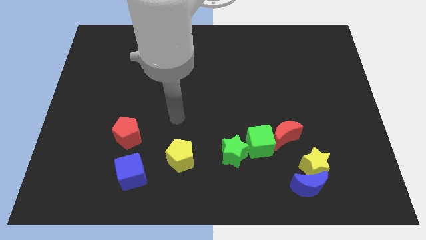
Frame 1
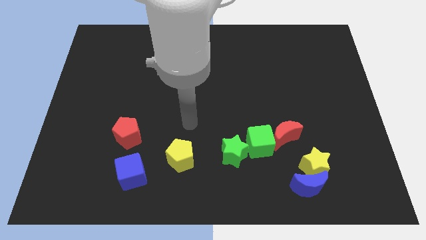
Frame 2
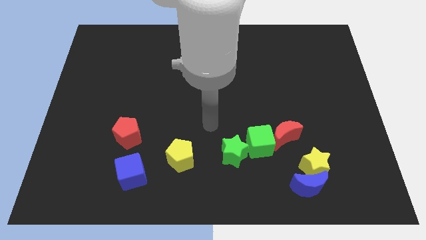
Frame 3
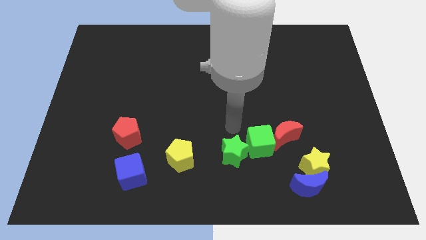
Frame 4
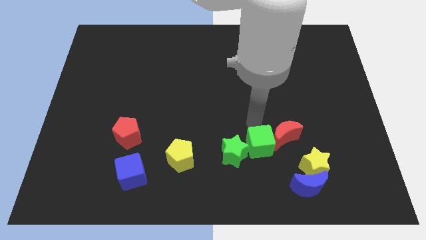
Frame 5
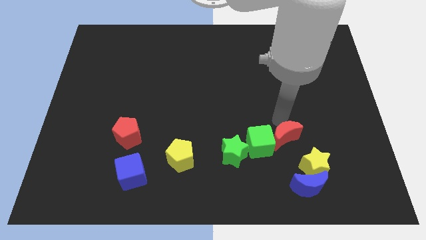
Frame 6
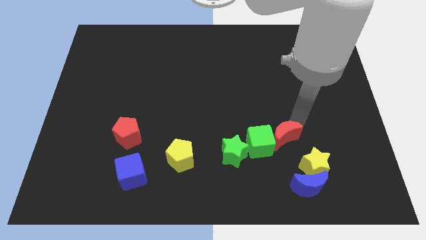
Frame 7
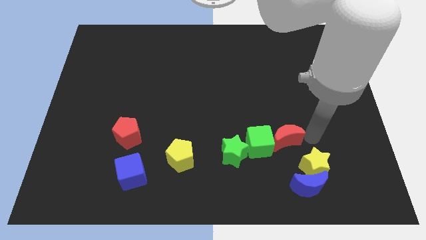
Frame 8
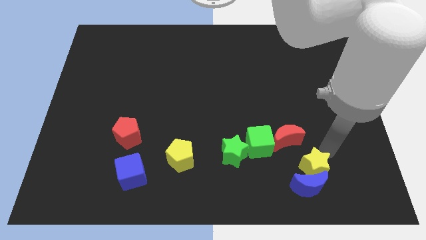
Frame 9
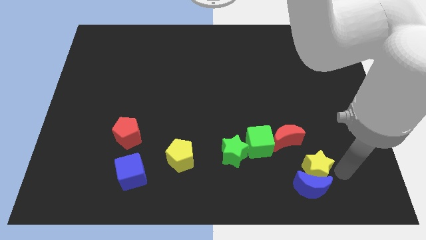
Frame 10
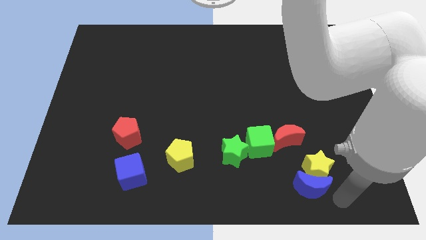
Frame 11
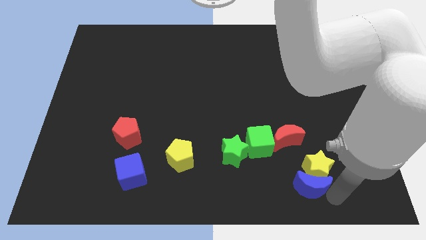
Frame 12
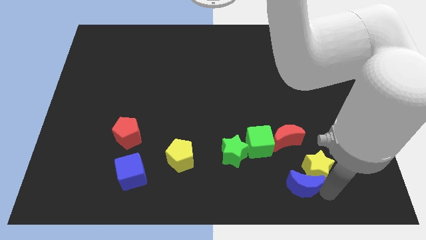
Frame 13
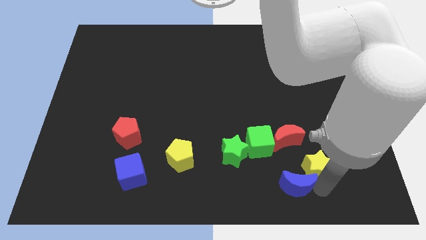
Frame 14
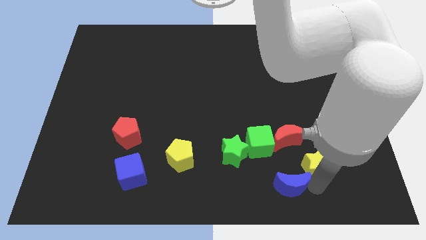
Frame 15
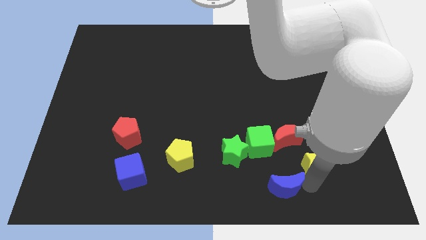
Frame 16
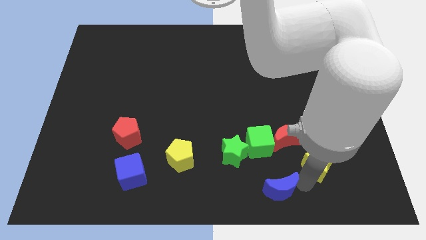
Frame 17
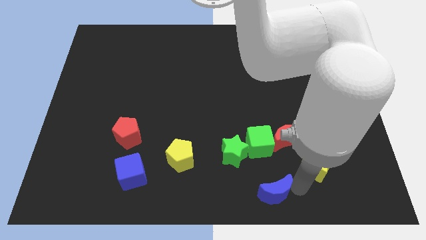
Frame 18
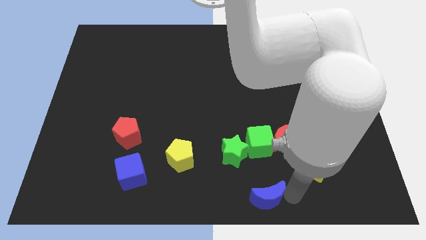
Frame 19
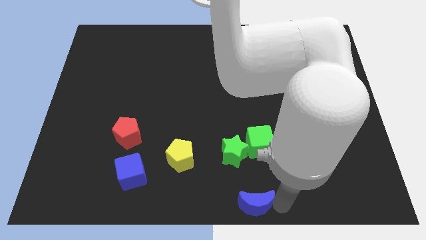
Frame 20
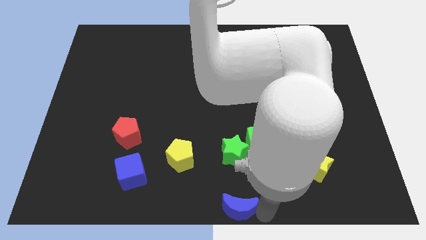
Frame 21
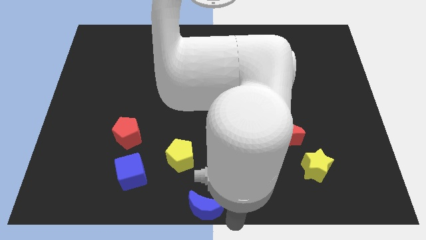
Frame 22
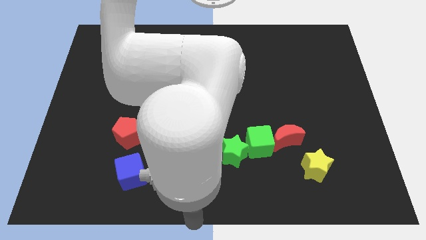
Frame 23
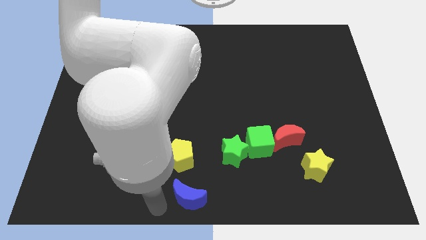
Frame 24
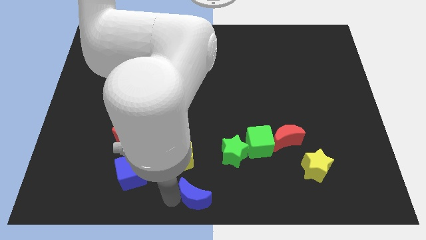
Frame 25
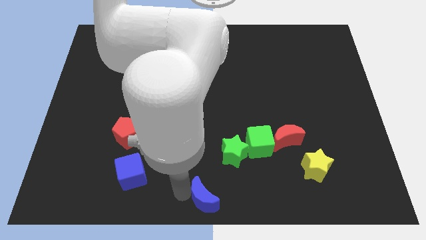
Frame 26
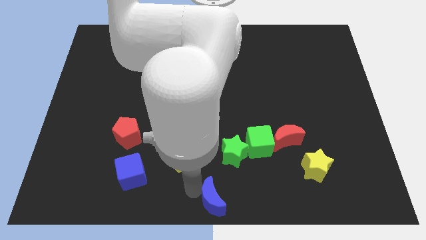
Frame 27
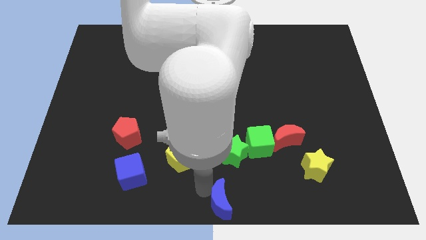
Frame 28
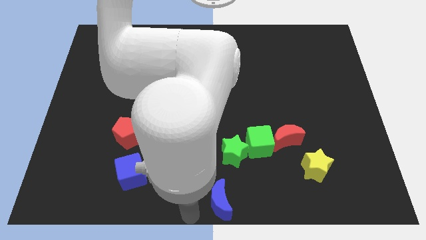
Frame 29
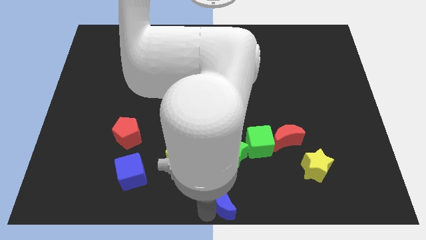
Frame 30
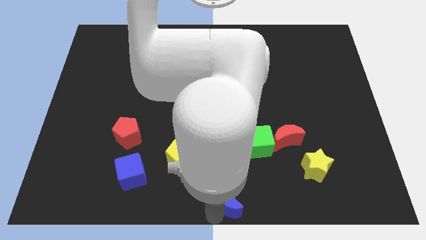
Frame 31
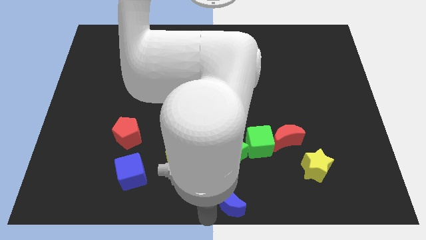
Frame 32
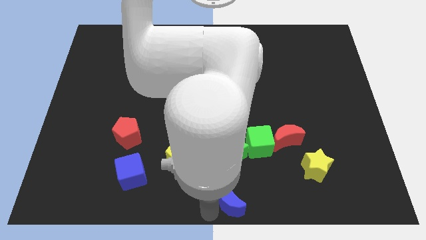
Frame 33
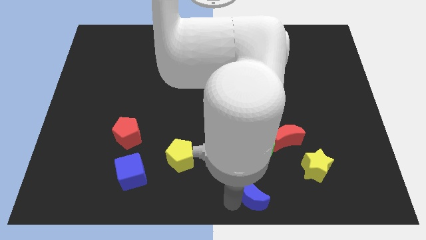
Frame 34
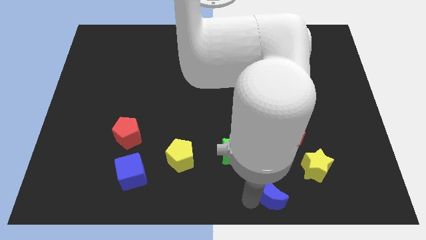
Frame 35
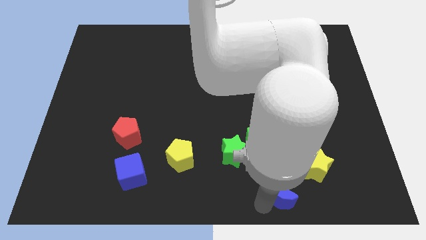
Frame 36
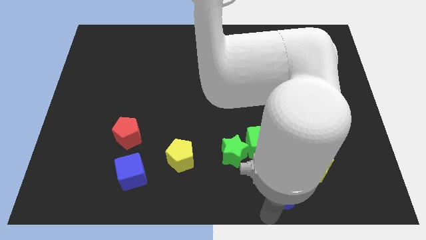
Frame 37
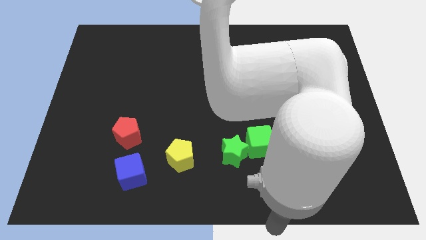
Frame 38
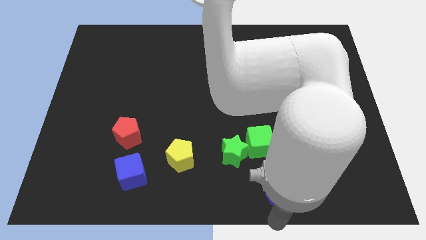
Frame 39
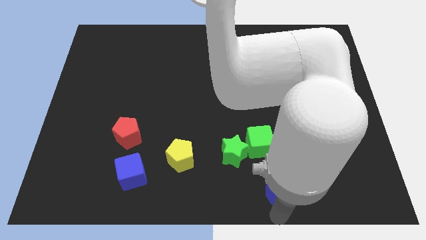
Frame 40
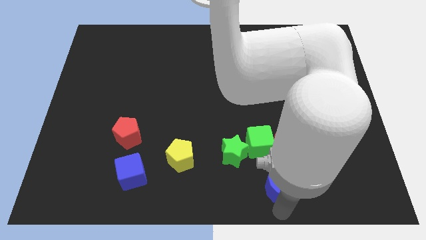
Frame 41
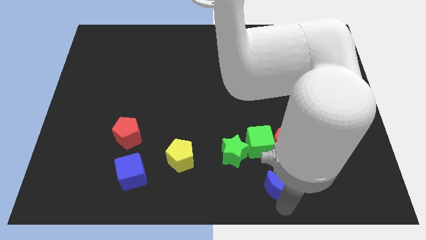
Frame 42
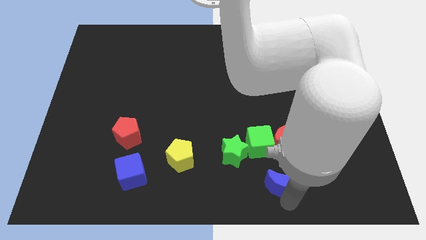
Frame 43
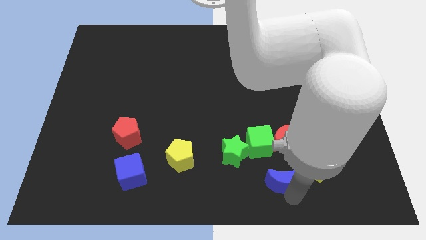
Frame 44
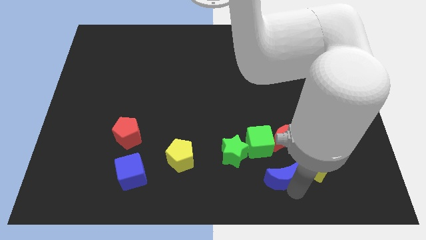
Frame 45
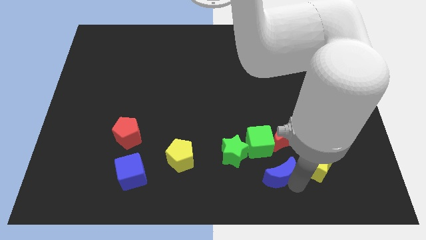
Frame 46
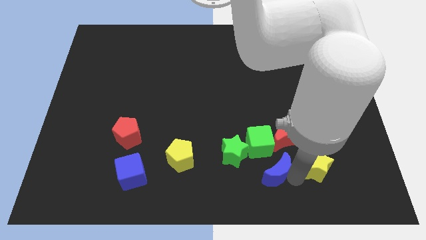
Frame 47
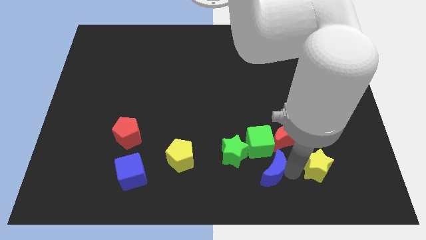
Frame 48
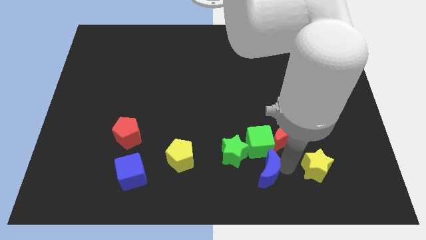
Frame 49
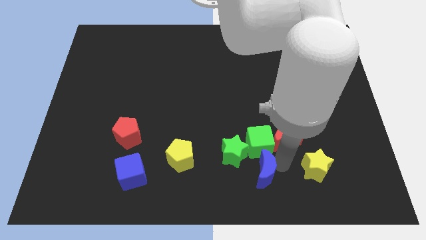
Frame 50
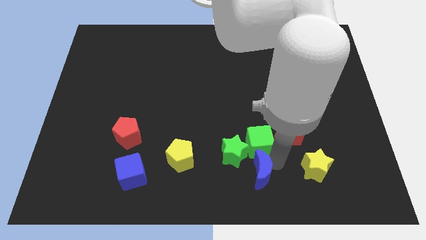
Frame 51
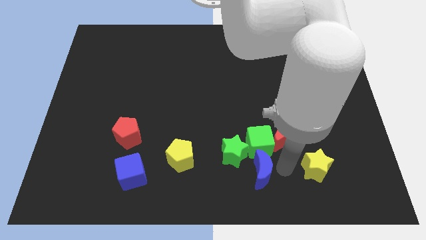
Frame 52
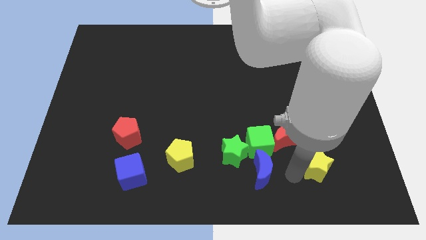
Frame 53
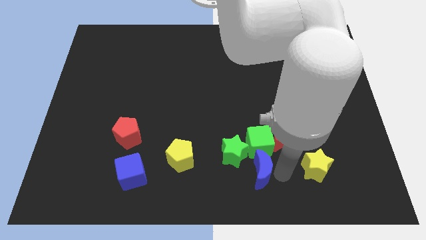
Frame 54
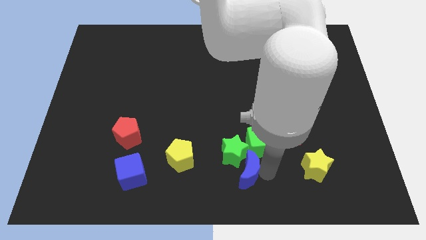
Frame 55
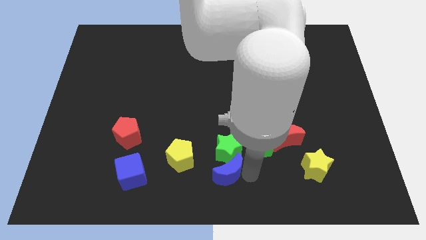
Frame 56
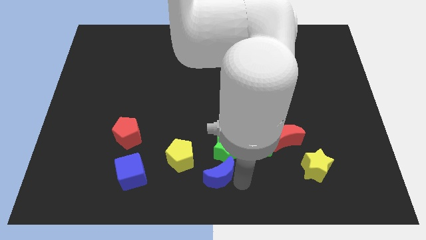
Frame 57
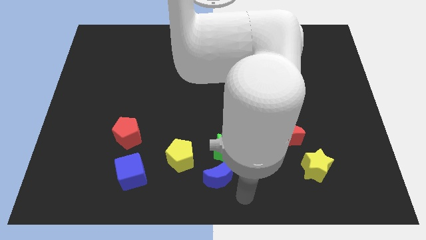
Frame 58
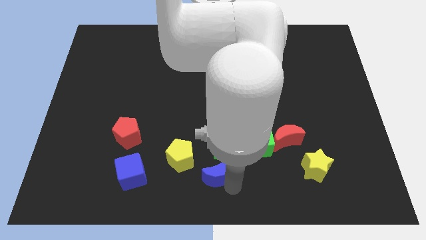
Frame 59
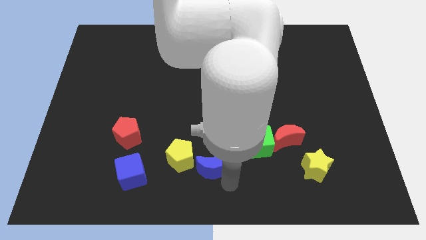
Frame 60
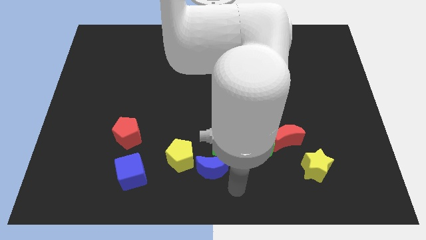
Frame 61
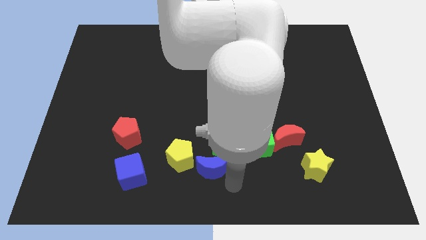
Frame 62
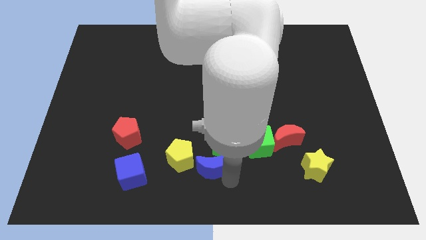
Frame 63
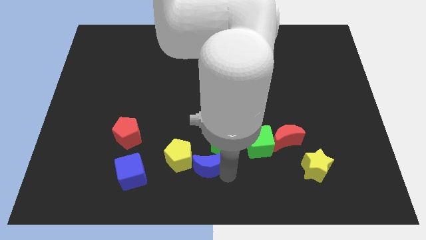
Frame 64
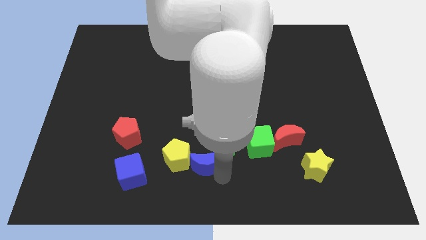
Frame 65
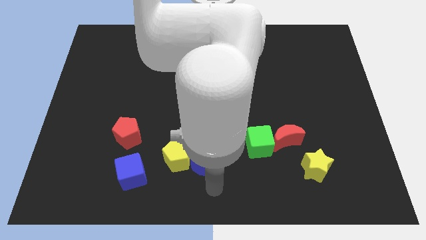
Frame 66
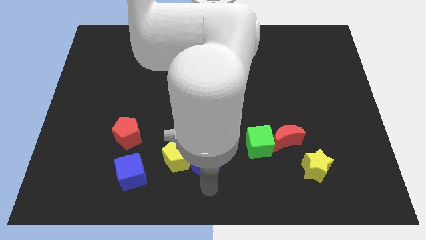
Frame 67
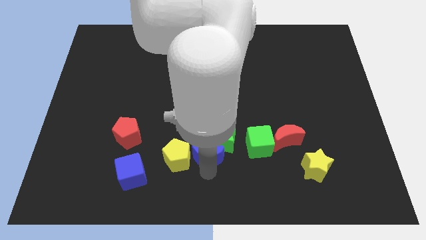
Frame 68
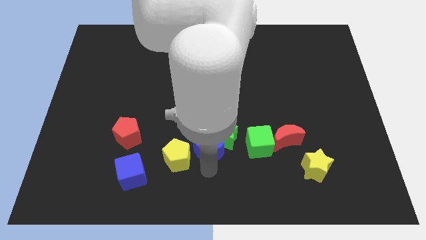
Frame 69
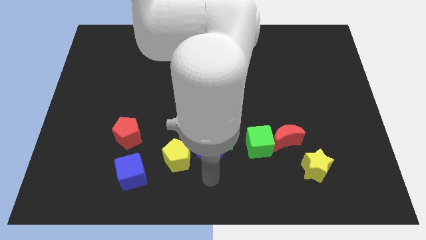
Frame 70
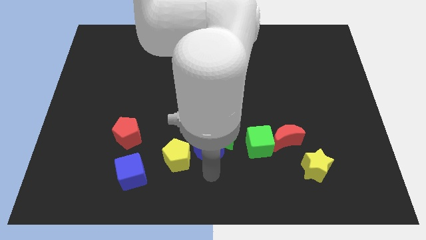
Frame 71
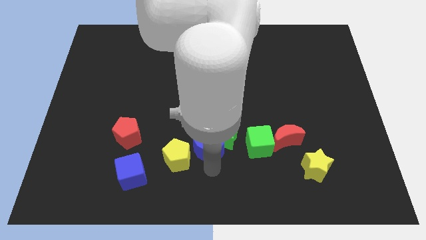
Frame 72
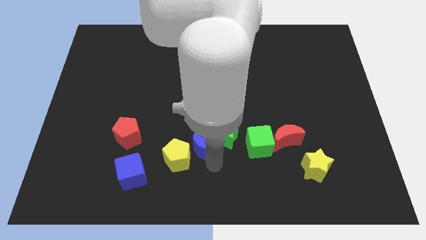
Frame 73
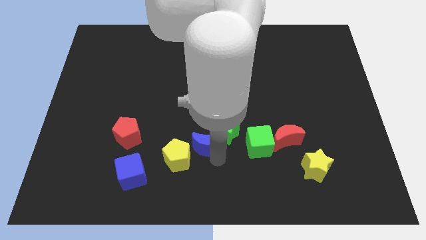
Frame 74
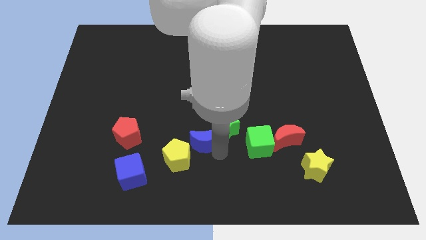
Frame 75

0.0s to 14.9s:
slide the blue moon up and to the left diagonally
